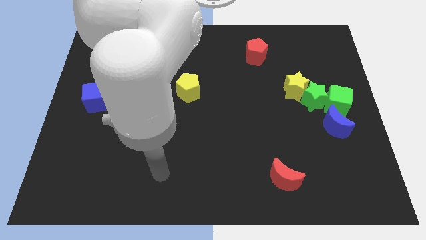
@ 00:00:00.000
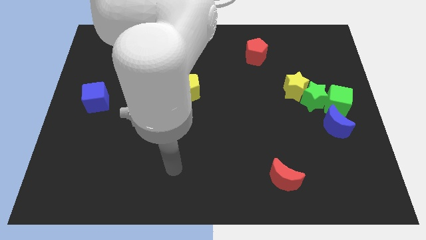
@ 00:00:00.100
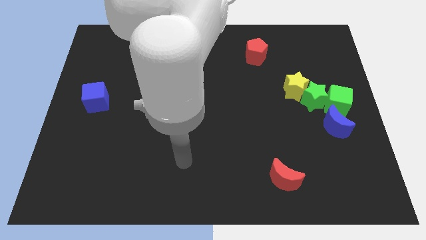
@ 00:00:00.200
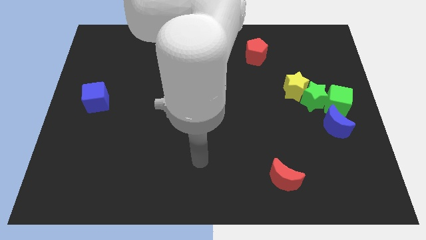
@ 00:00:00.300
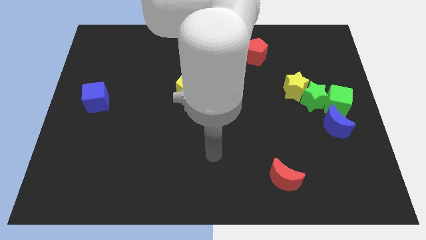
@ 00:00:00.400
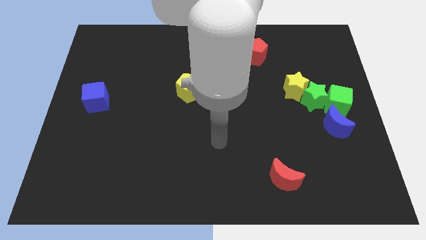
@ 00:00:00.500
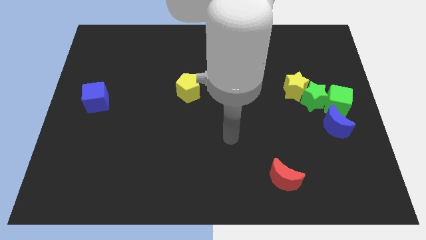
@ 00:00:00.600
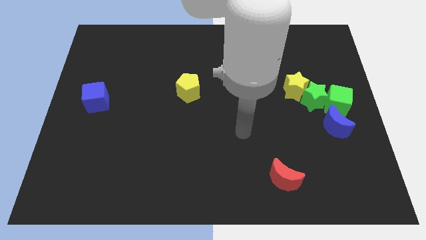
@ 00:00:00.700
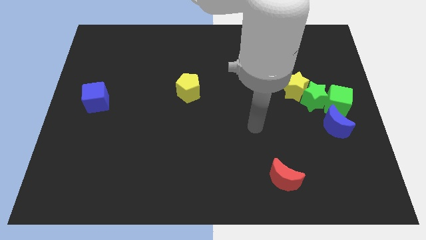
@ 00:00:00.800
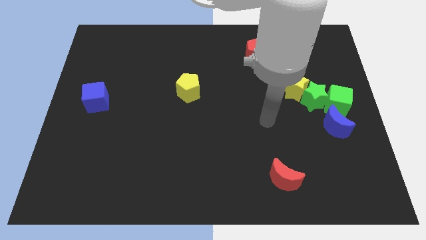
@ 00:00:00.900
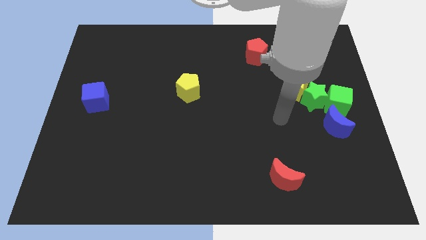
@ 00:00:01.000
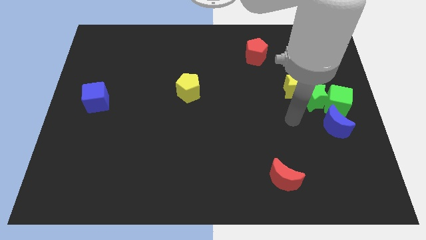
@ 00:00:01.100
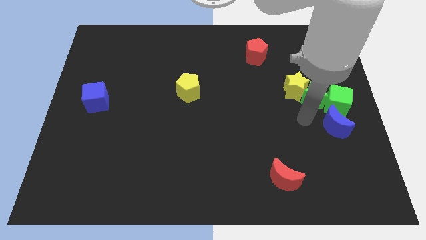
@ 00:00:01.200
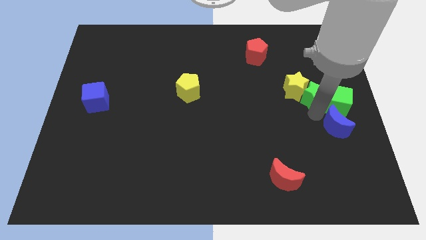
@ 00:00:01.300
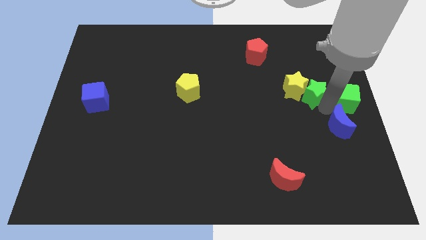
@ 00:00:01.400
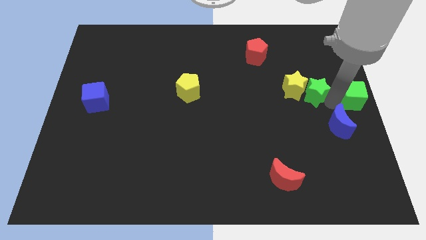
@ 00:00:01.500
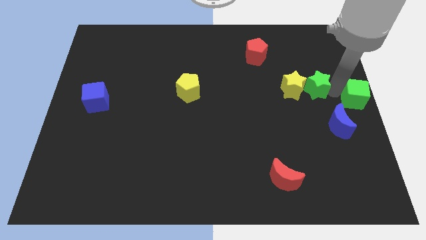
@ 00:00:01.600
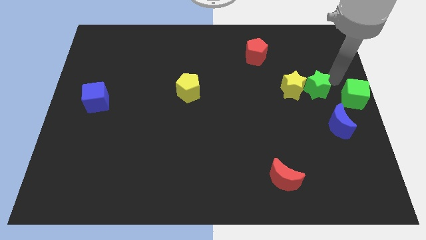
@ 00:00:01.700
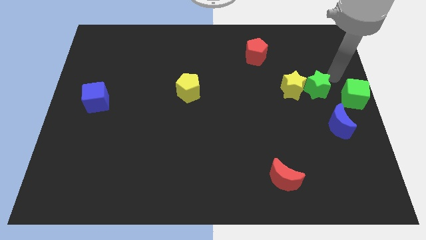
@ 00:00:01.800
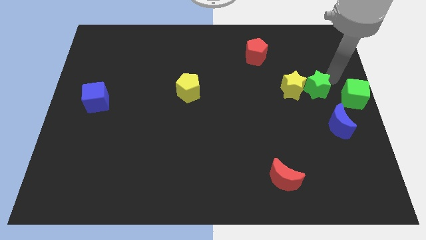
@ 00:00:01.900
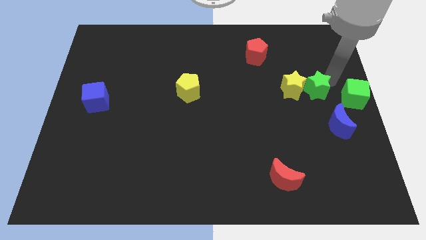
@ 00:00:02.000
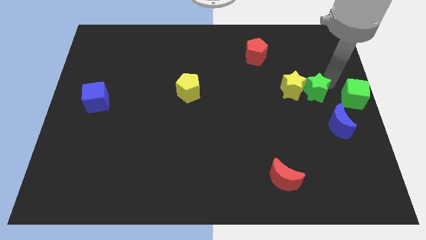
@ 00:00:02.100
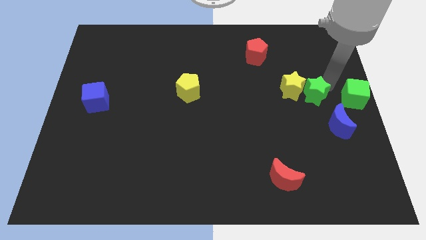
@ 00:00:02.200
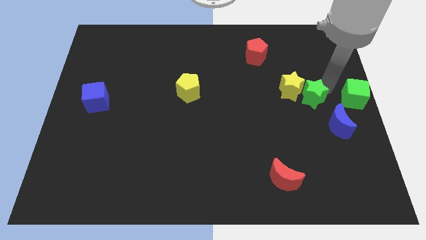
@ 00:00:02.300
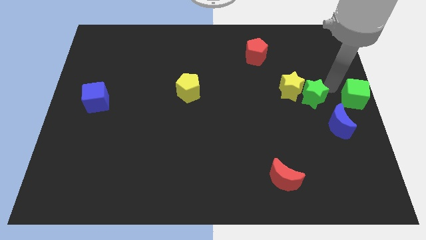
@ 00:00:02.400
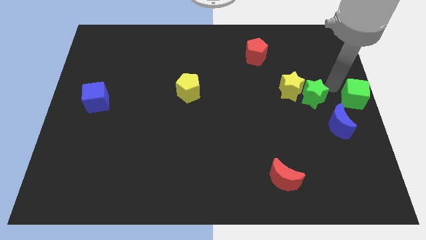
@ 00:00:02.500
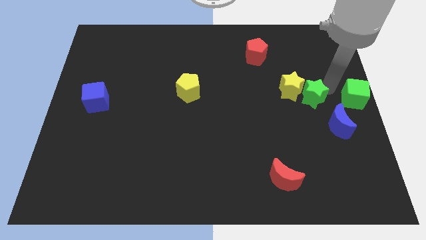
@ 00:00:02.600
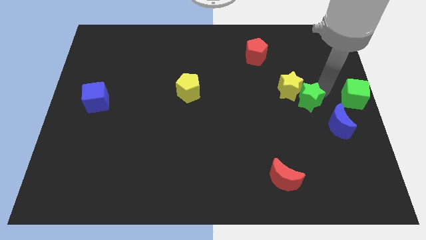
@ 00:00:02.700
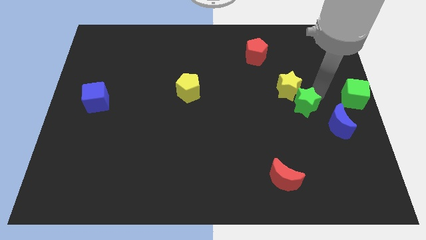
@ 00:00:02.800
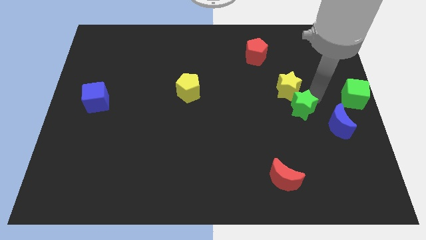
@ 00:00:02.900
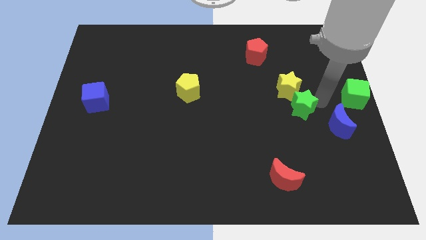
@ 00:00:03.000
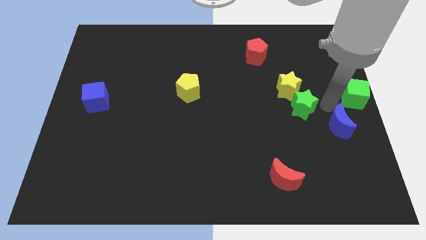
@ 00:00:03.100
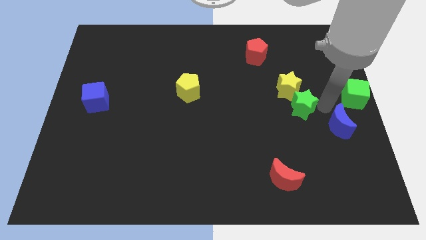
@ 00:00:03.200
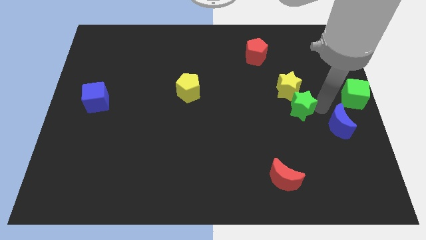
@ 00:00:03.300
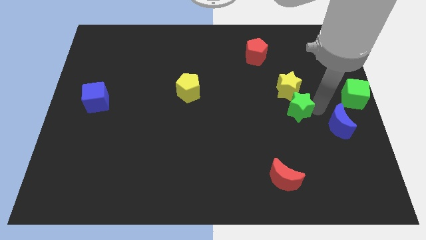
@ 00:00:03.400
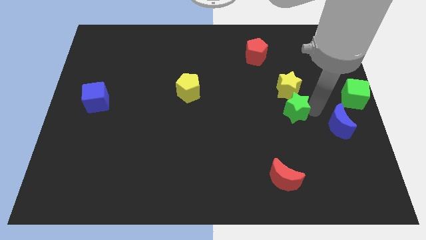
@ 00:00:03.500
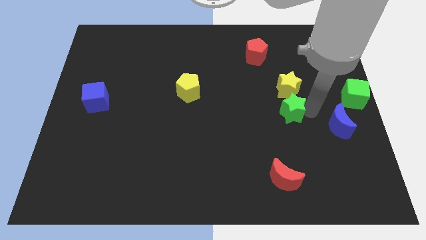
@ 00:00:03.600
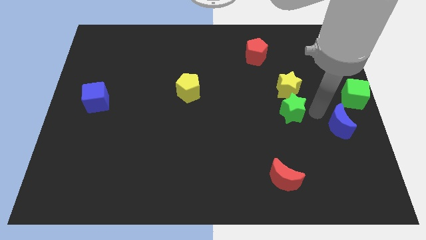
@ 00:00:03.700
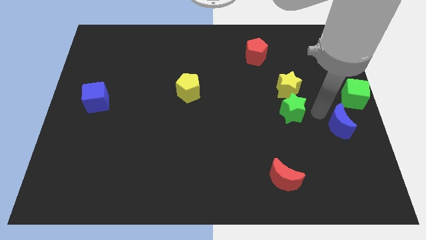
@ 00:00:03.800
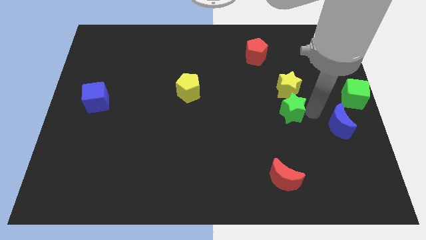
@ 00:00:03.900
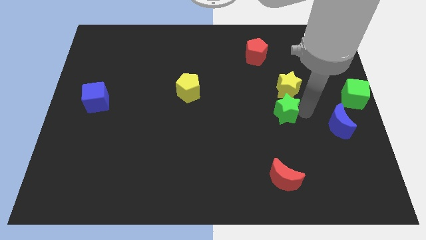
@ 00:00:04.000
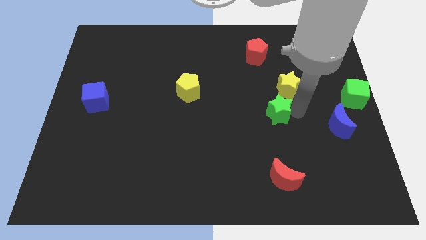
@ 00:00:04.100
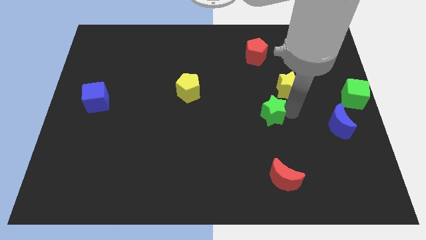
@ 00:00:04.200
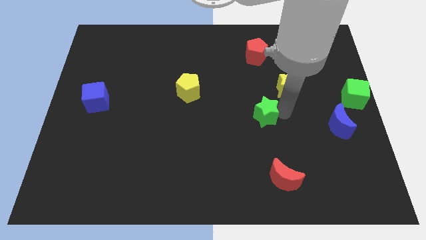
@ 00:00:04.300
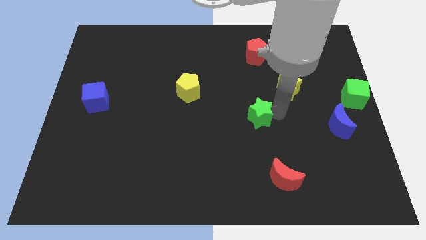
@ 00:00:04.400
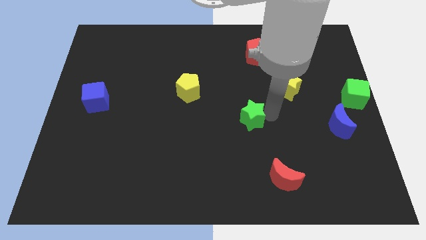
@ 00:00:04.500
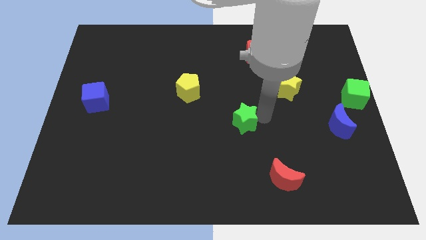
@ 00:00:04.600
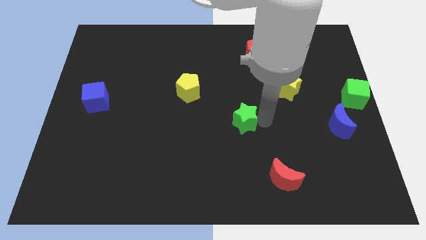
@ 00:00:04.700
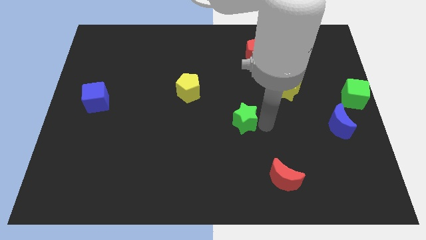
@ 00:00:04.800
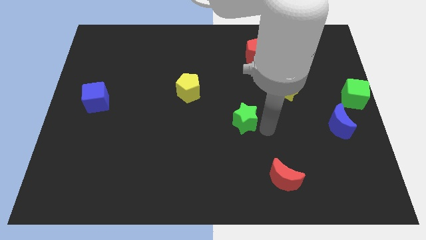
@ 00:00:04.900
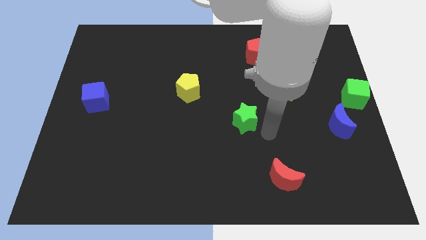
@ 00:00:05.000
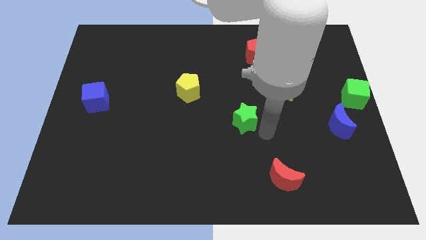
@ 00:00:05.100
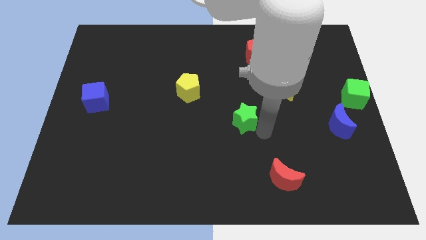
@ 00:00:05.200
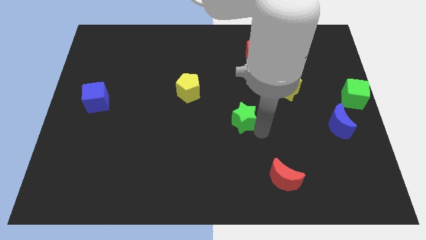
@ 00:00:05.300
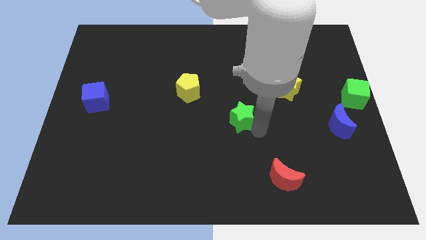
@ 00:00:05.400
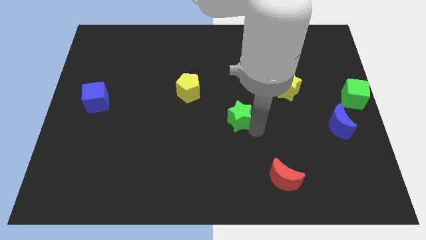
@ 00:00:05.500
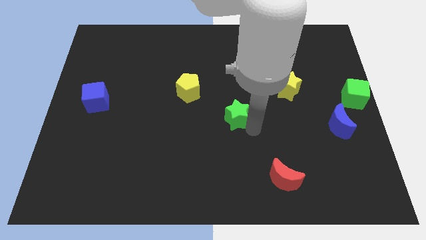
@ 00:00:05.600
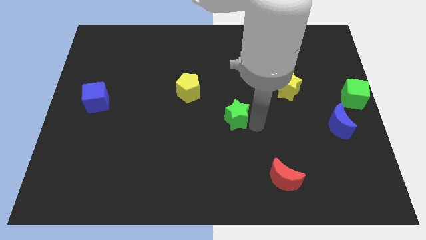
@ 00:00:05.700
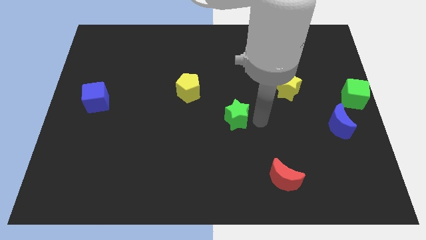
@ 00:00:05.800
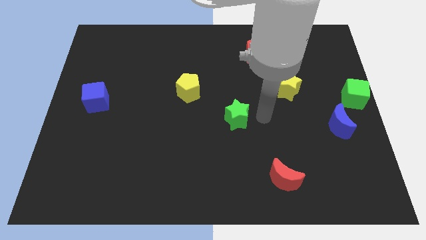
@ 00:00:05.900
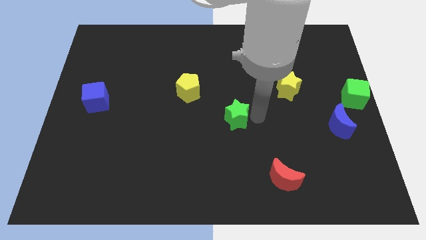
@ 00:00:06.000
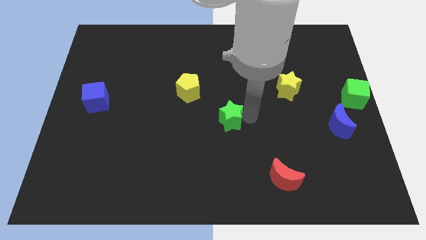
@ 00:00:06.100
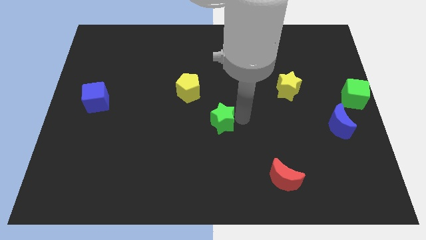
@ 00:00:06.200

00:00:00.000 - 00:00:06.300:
push the green star to the left

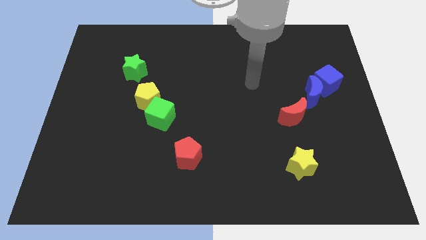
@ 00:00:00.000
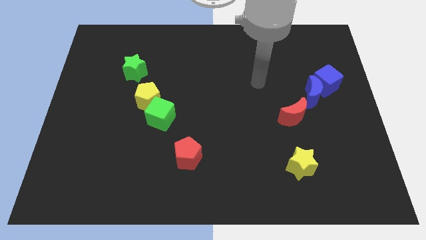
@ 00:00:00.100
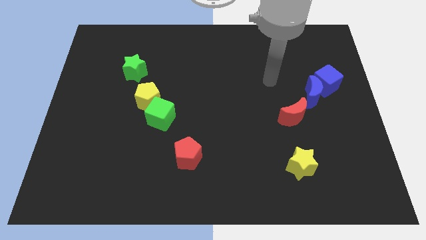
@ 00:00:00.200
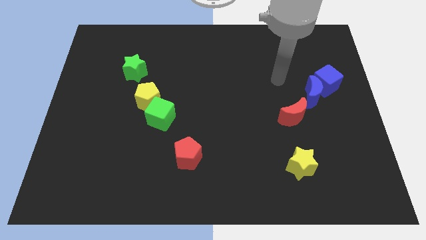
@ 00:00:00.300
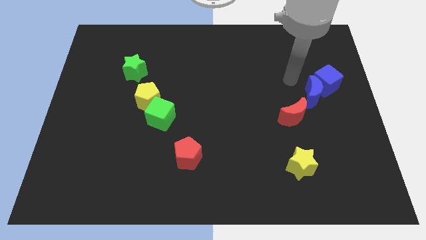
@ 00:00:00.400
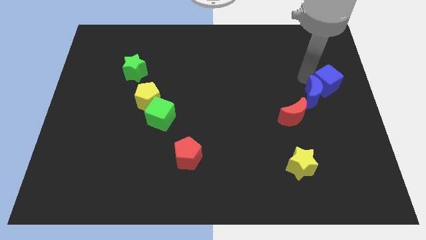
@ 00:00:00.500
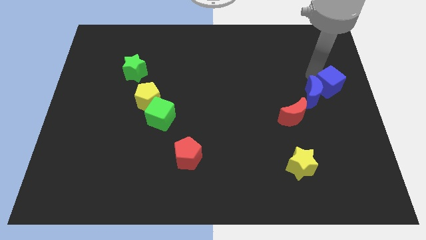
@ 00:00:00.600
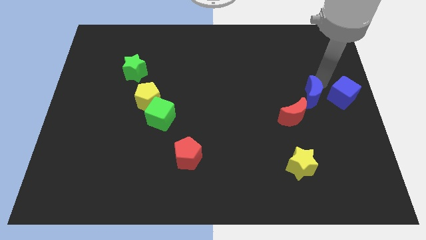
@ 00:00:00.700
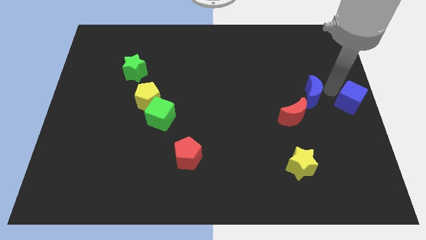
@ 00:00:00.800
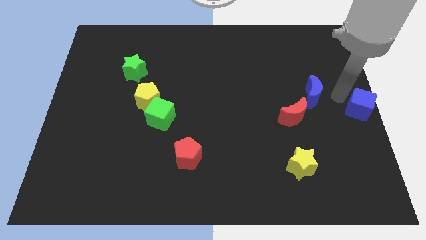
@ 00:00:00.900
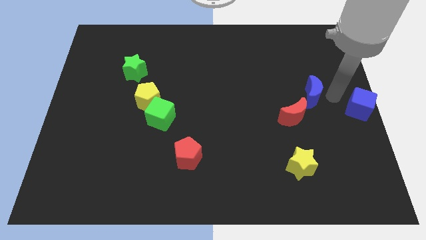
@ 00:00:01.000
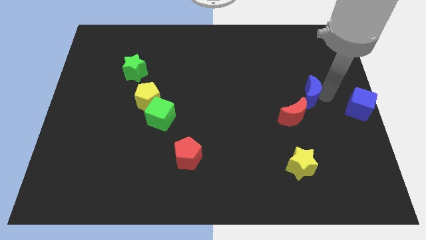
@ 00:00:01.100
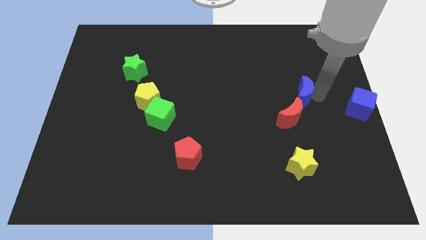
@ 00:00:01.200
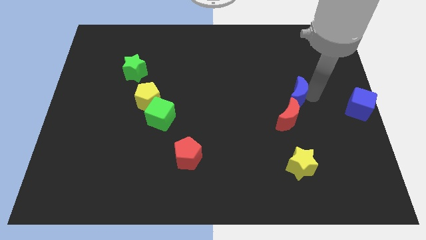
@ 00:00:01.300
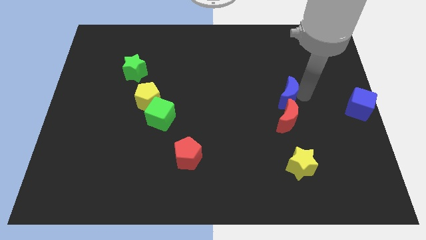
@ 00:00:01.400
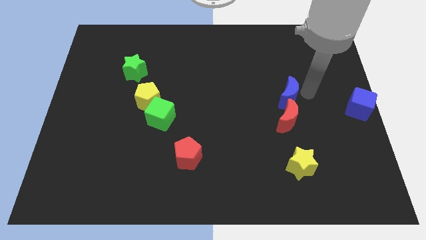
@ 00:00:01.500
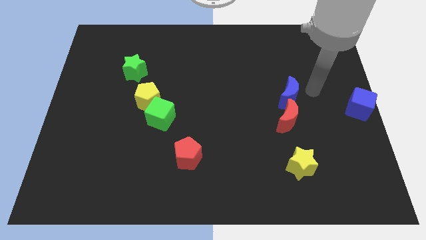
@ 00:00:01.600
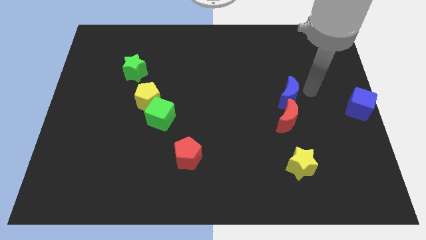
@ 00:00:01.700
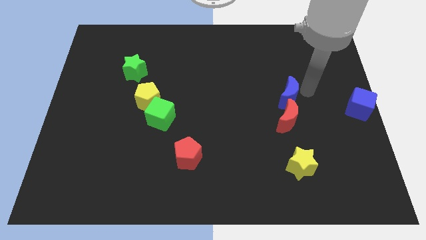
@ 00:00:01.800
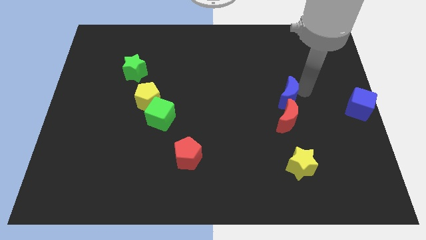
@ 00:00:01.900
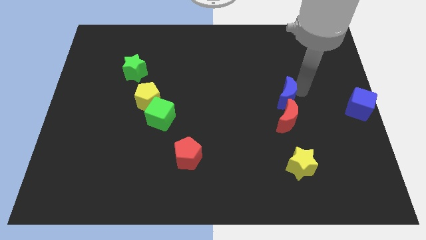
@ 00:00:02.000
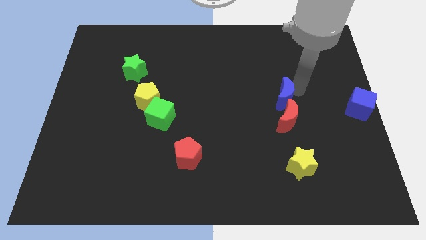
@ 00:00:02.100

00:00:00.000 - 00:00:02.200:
move the blue moon a little bit left
